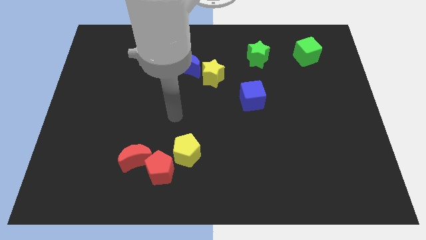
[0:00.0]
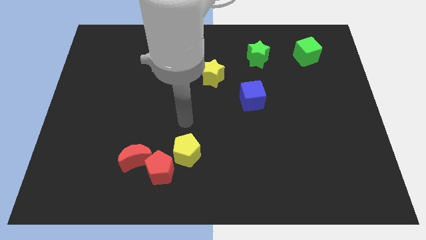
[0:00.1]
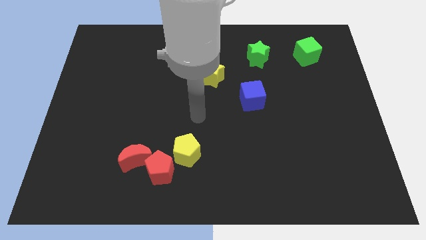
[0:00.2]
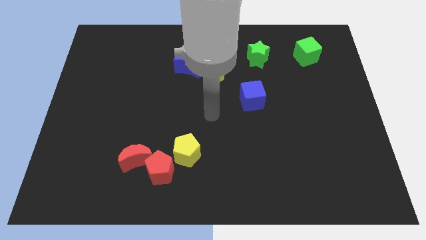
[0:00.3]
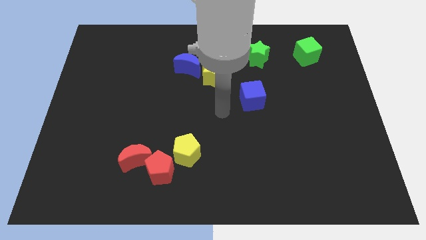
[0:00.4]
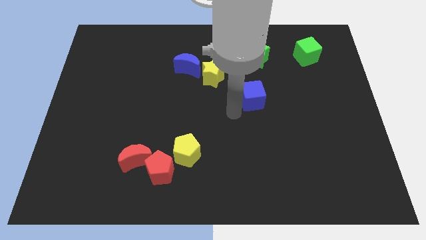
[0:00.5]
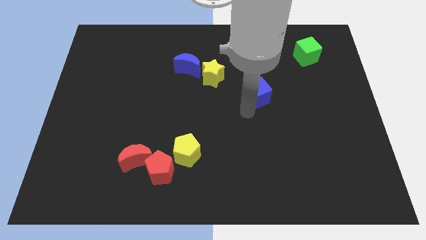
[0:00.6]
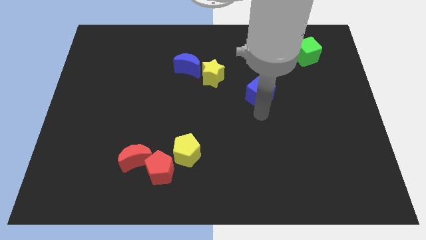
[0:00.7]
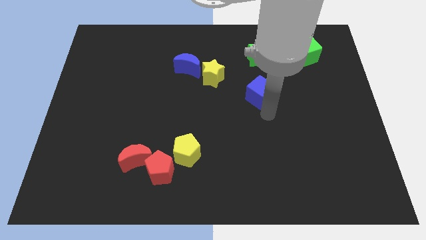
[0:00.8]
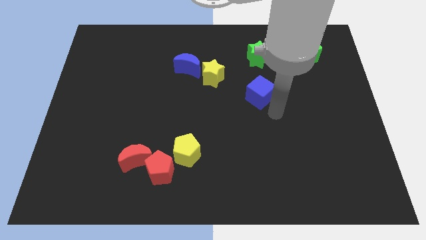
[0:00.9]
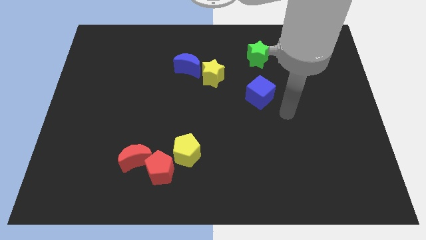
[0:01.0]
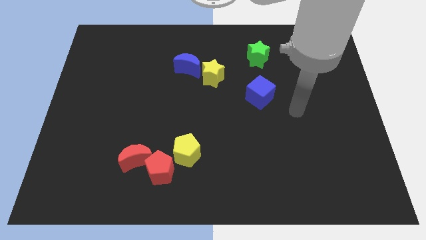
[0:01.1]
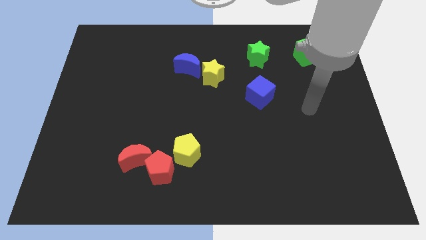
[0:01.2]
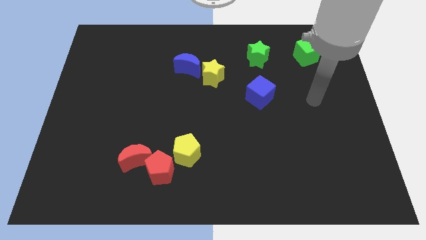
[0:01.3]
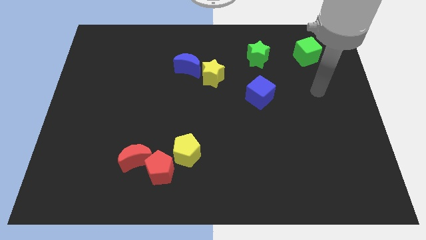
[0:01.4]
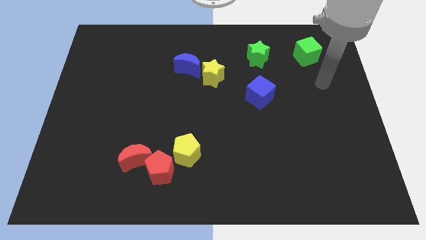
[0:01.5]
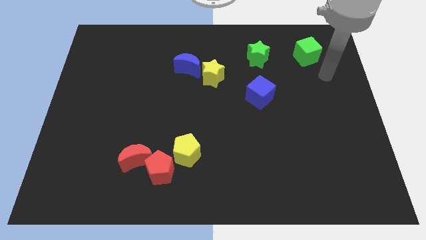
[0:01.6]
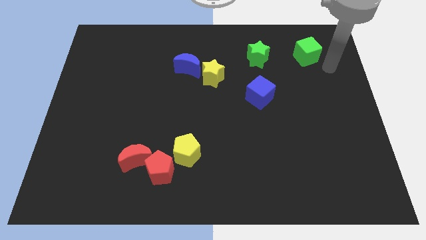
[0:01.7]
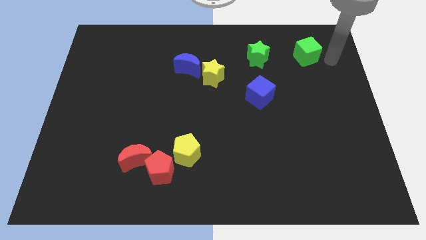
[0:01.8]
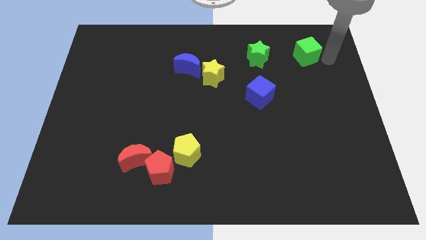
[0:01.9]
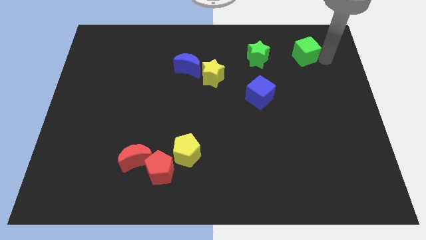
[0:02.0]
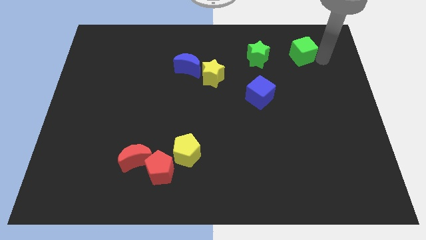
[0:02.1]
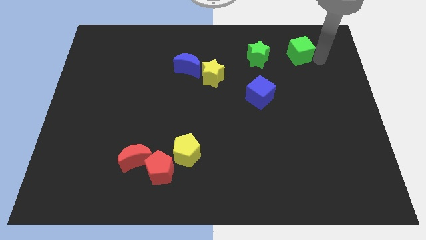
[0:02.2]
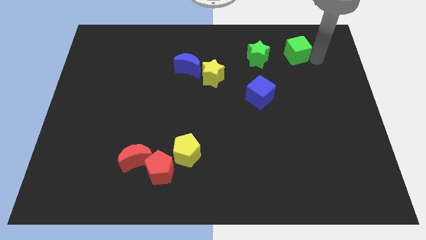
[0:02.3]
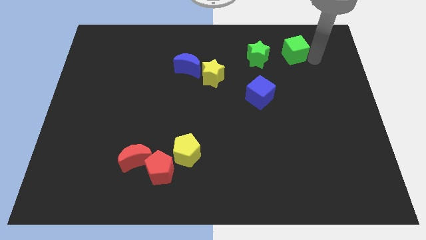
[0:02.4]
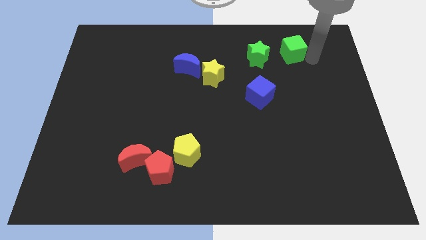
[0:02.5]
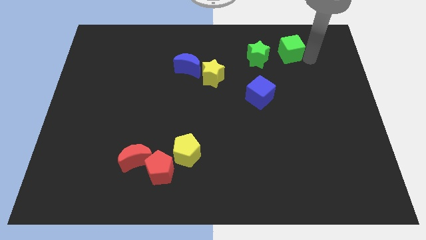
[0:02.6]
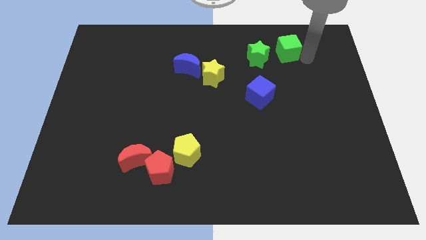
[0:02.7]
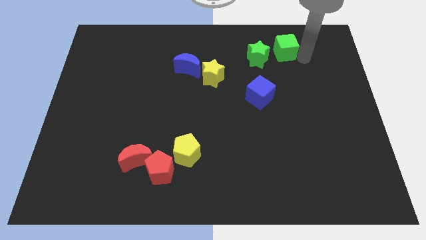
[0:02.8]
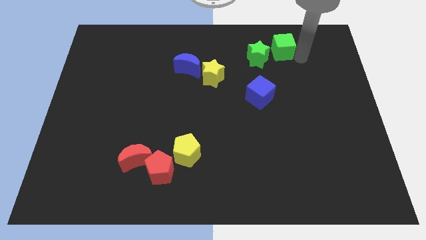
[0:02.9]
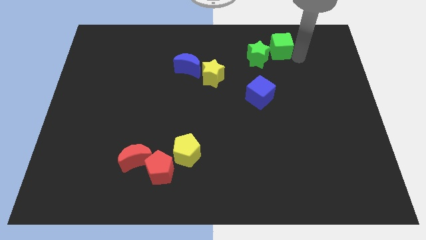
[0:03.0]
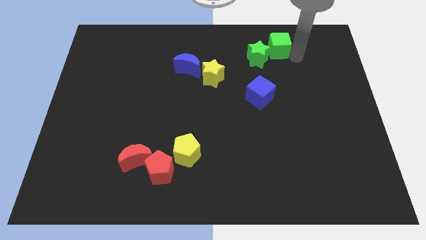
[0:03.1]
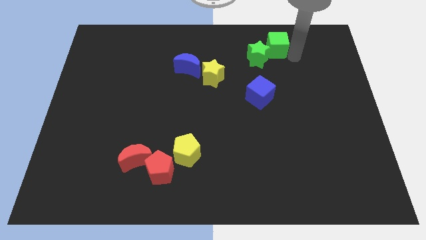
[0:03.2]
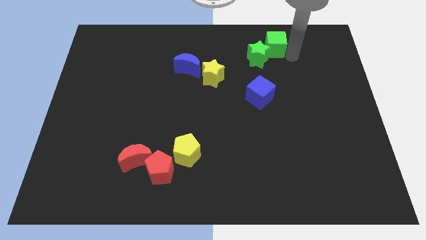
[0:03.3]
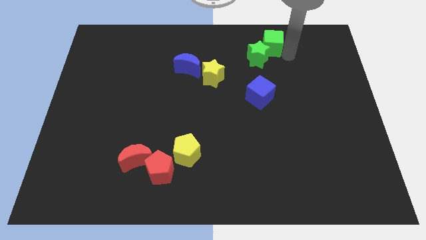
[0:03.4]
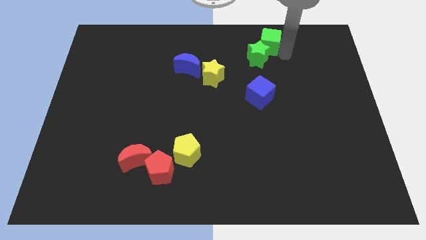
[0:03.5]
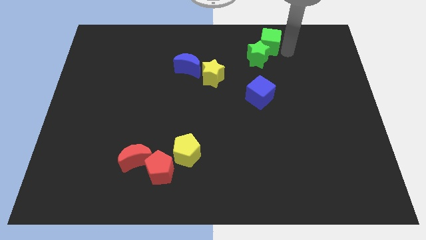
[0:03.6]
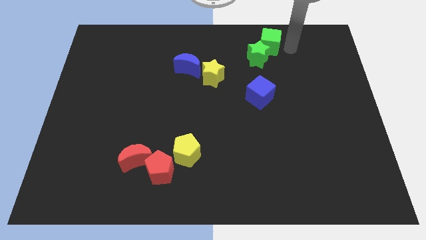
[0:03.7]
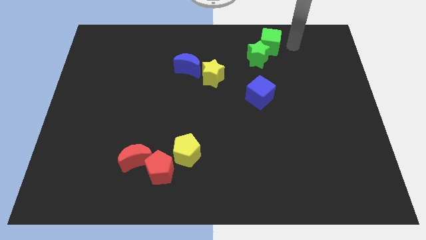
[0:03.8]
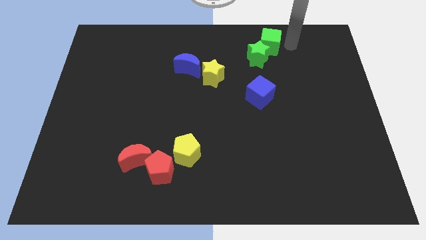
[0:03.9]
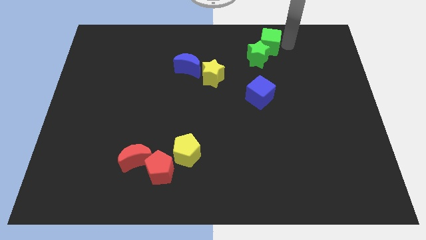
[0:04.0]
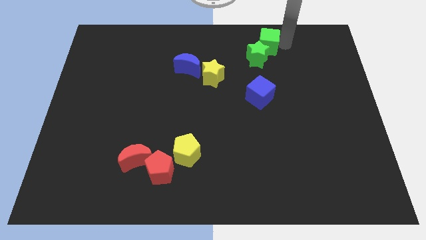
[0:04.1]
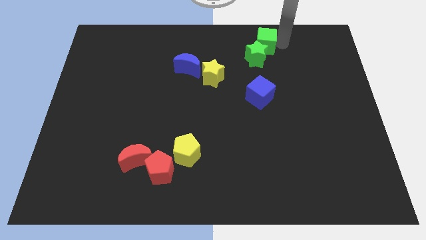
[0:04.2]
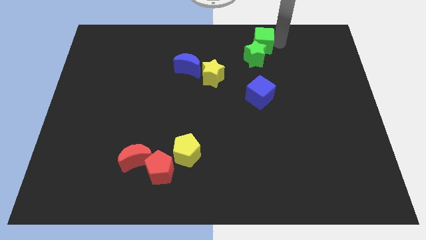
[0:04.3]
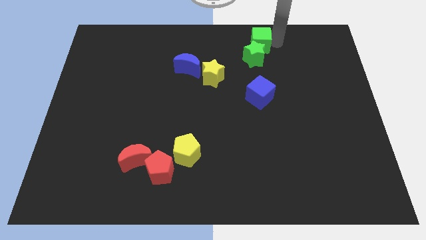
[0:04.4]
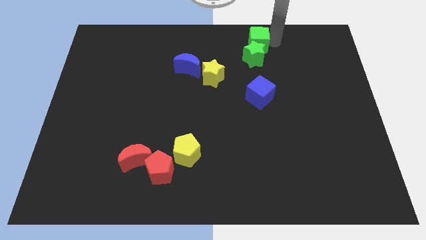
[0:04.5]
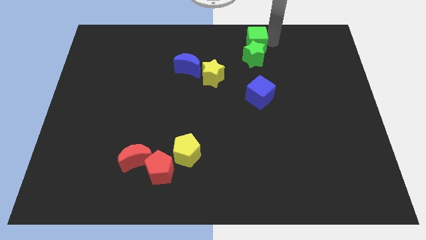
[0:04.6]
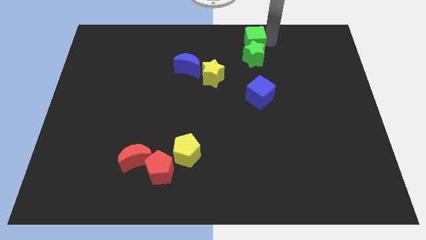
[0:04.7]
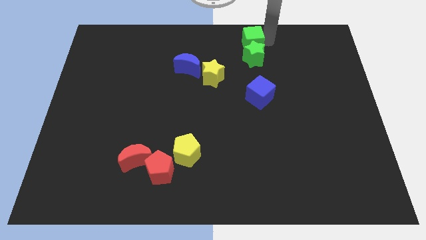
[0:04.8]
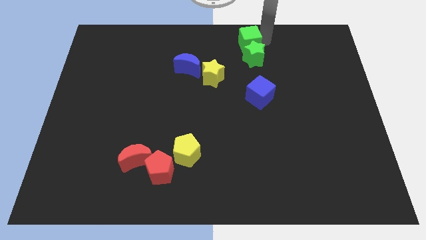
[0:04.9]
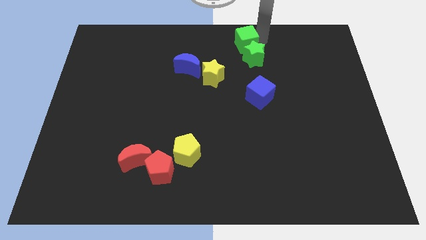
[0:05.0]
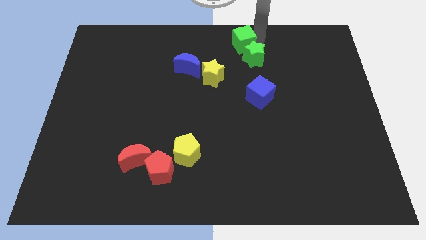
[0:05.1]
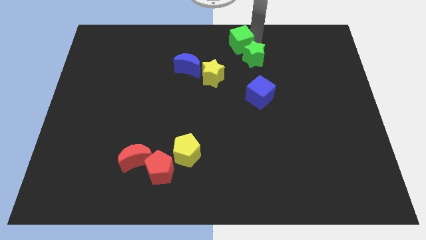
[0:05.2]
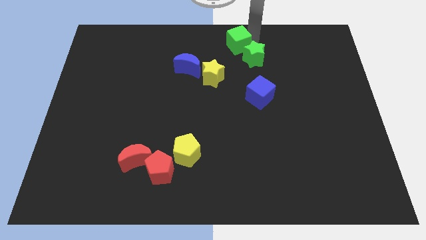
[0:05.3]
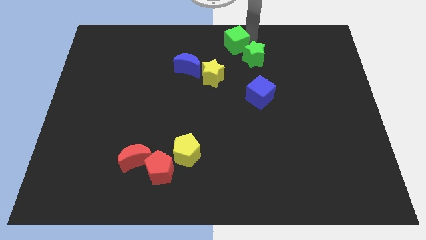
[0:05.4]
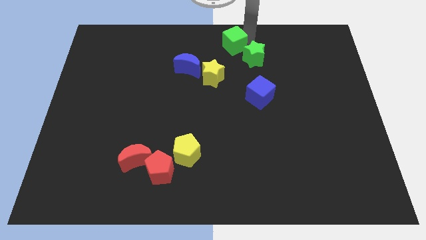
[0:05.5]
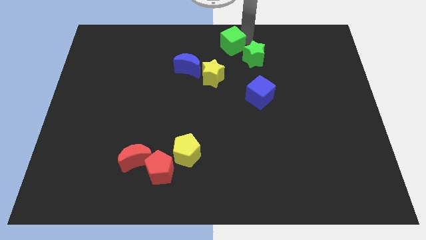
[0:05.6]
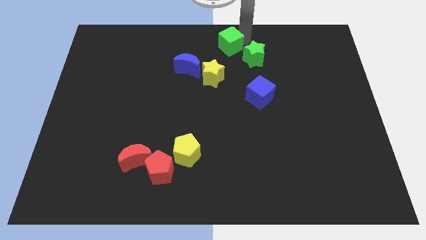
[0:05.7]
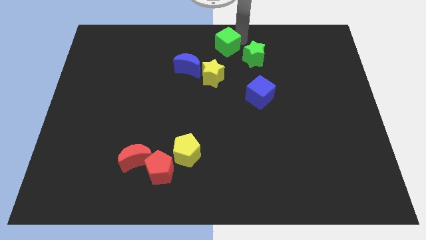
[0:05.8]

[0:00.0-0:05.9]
slide the green cube to the left

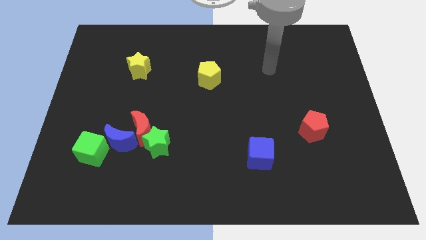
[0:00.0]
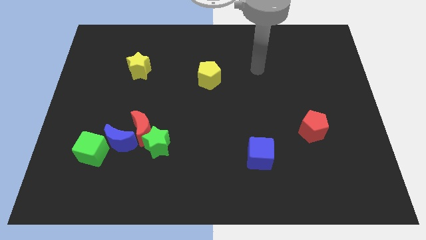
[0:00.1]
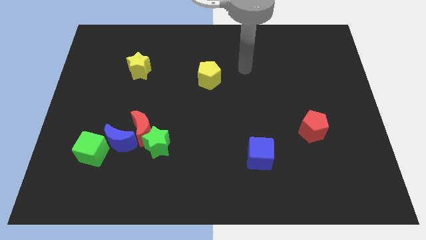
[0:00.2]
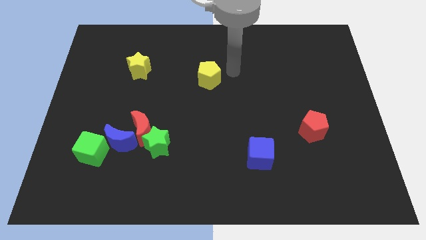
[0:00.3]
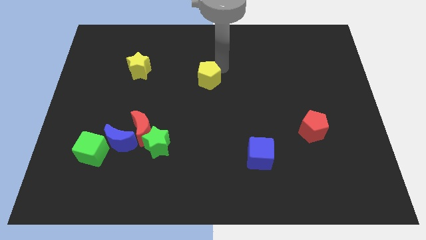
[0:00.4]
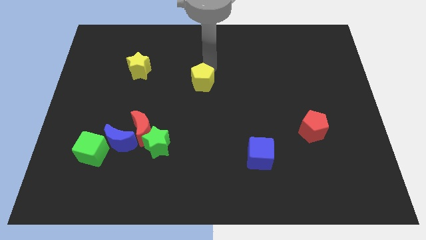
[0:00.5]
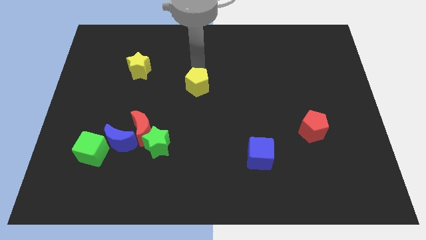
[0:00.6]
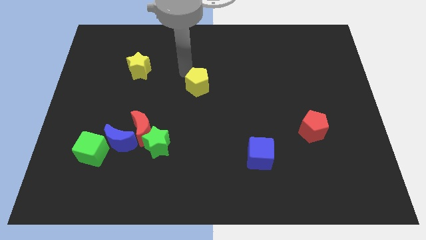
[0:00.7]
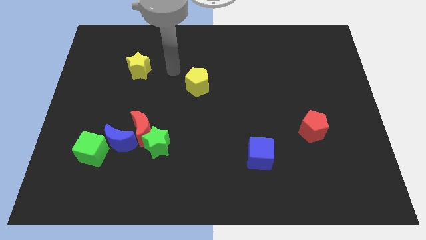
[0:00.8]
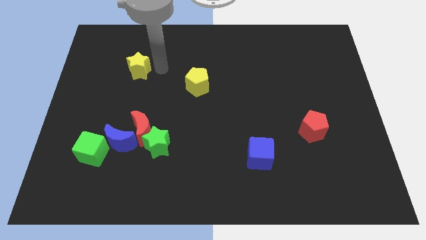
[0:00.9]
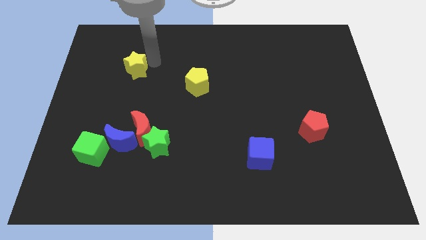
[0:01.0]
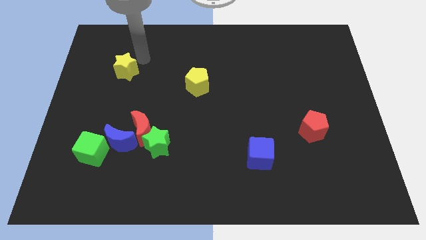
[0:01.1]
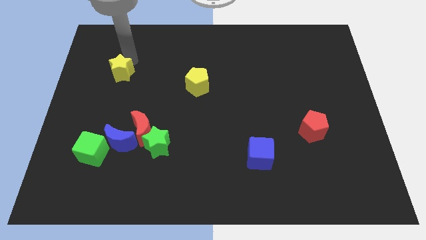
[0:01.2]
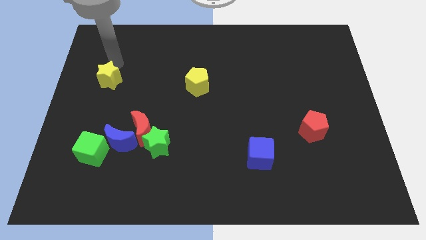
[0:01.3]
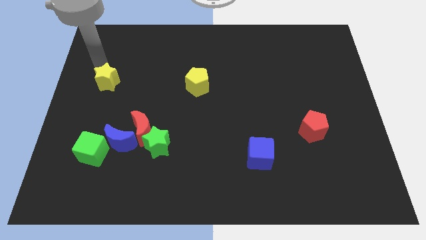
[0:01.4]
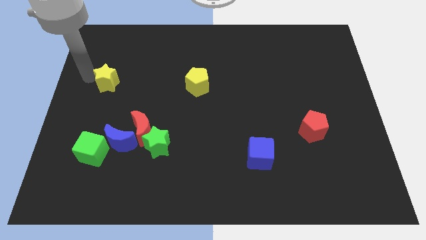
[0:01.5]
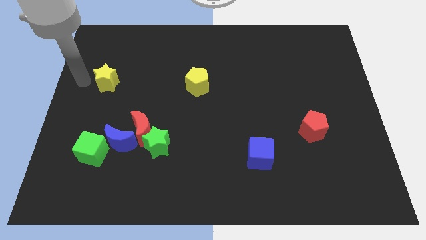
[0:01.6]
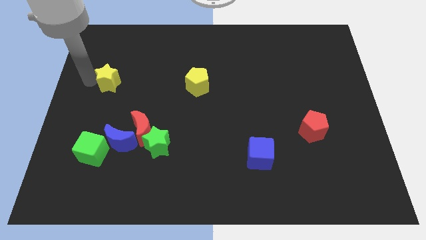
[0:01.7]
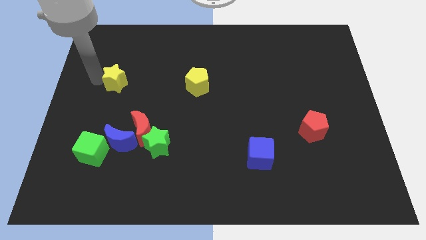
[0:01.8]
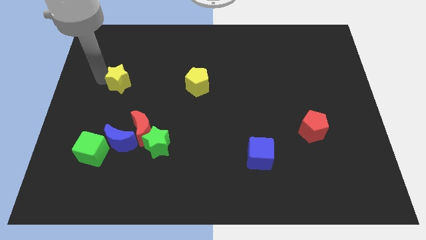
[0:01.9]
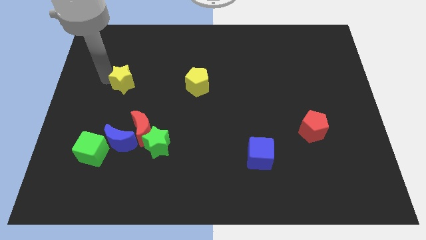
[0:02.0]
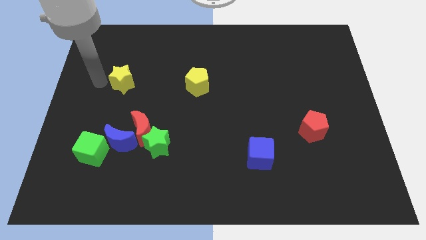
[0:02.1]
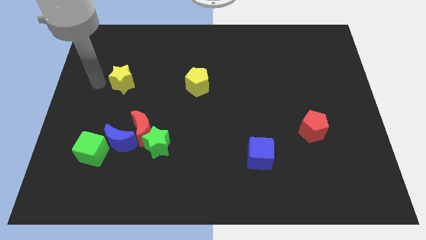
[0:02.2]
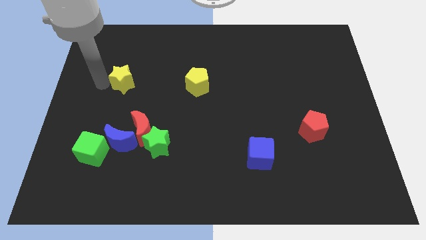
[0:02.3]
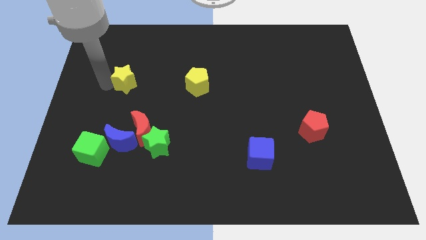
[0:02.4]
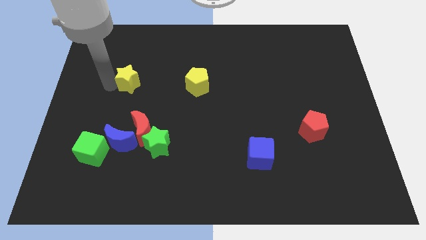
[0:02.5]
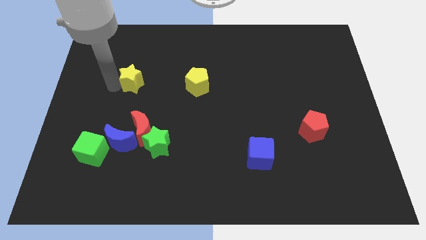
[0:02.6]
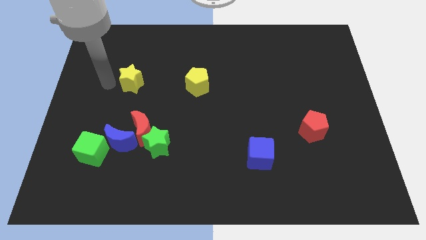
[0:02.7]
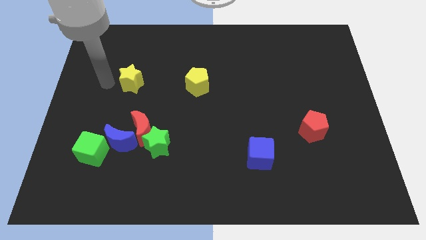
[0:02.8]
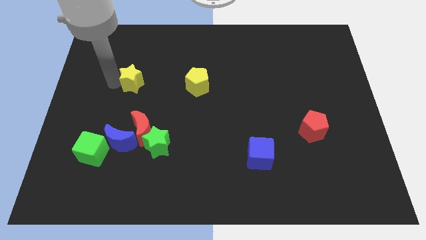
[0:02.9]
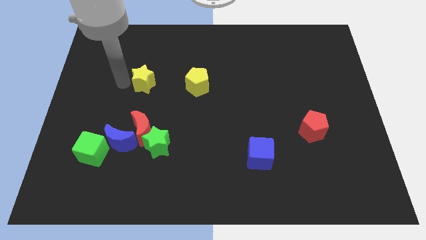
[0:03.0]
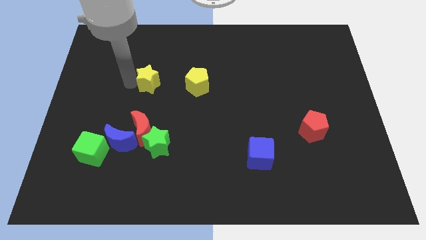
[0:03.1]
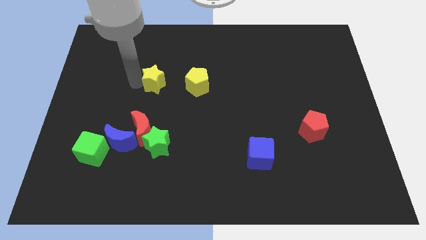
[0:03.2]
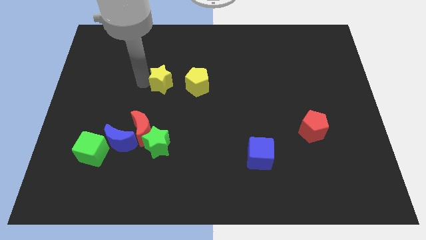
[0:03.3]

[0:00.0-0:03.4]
move the yellow star down and to the right somewhat
